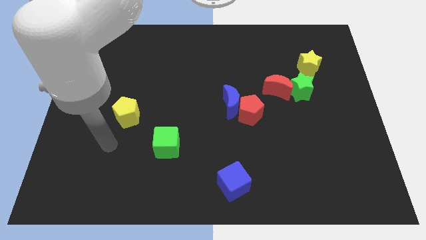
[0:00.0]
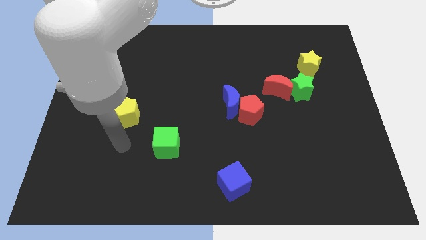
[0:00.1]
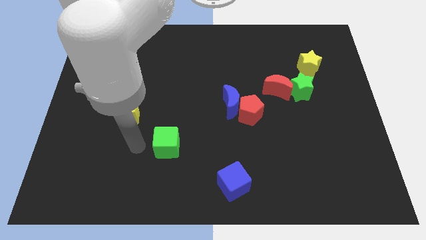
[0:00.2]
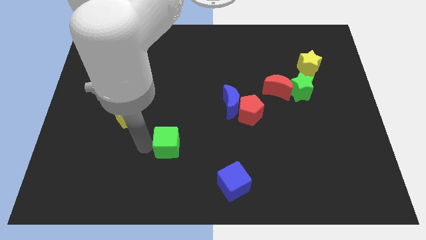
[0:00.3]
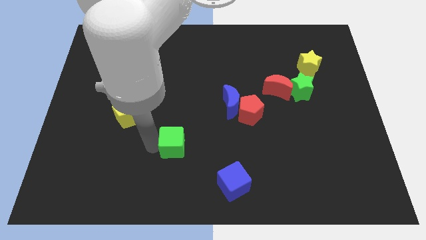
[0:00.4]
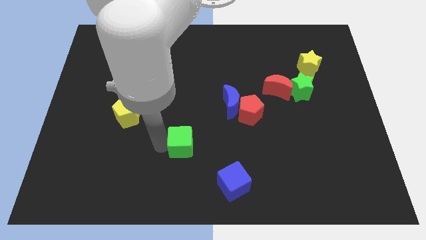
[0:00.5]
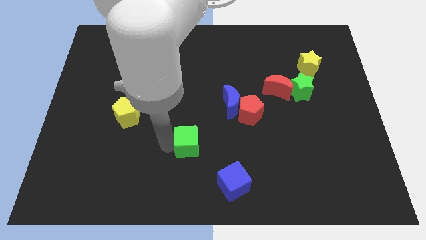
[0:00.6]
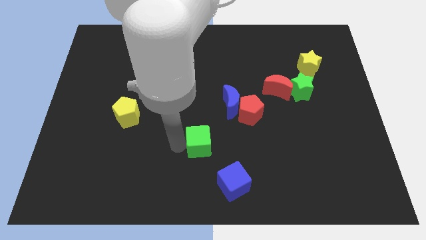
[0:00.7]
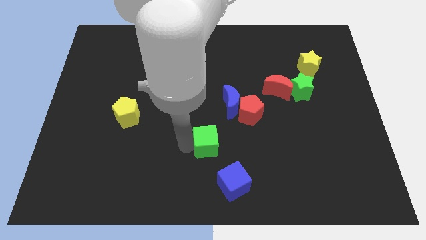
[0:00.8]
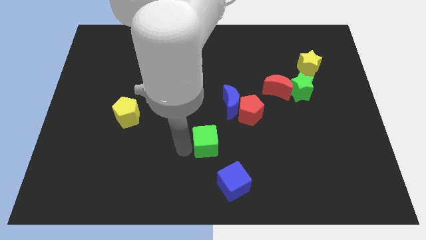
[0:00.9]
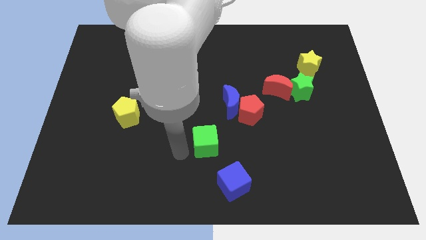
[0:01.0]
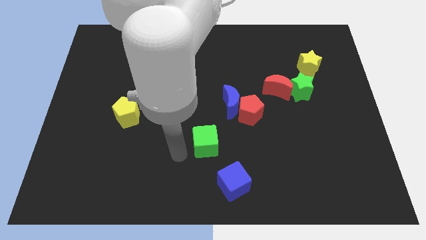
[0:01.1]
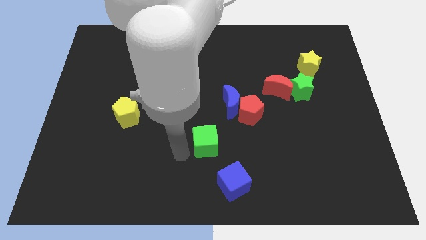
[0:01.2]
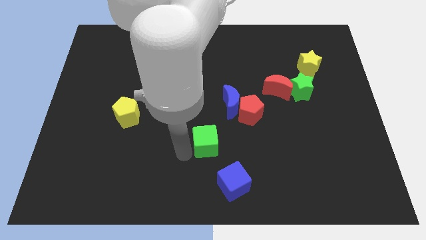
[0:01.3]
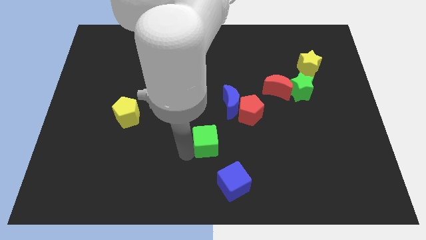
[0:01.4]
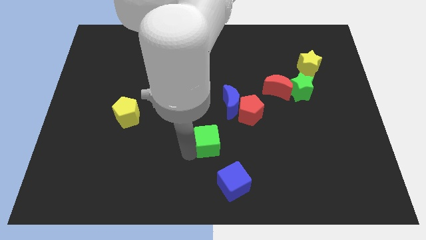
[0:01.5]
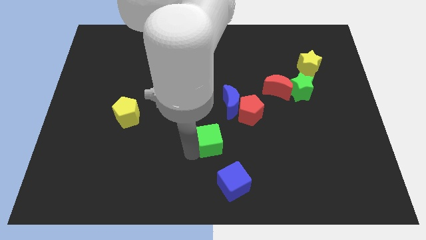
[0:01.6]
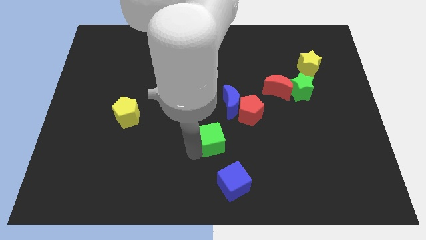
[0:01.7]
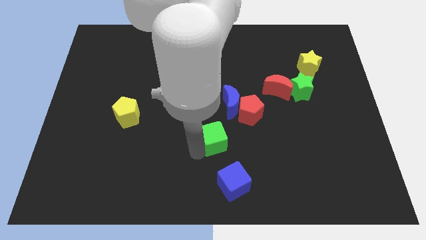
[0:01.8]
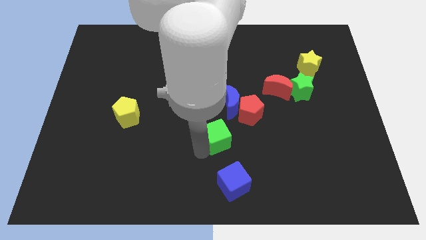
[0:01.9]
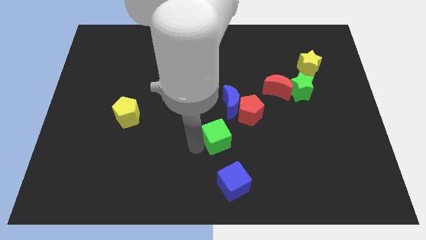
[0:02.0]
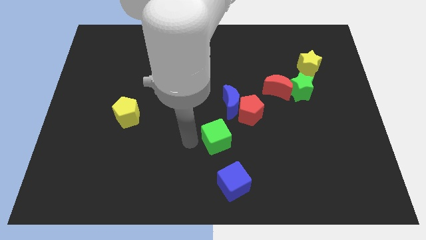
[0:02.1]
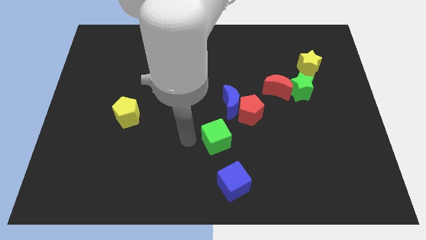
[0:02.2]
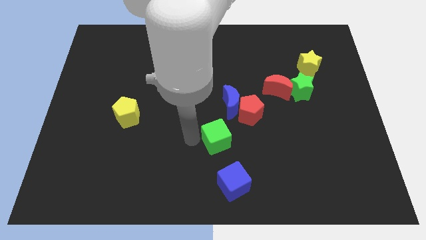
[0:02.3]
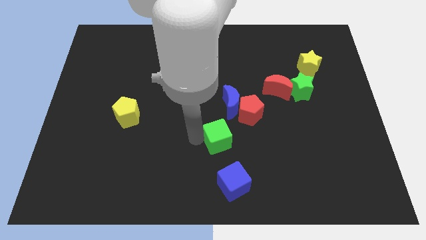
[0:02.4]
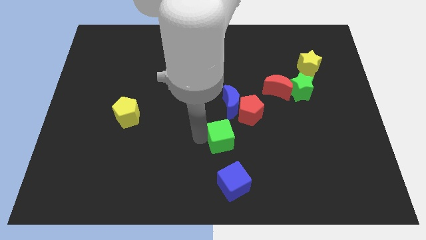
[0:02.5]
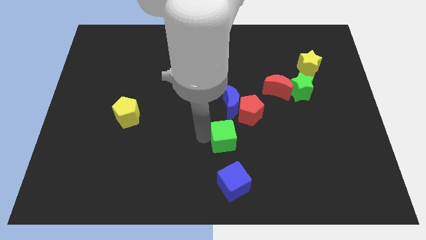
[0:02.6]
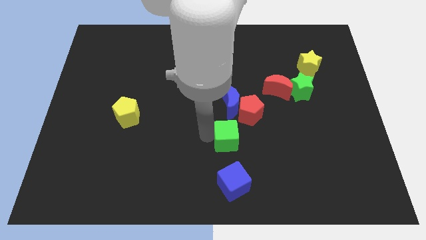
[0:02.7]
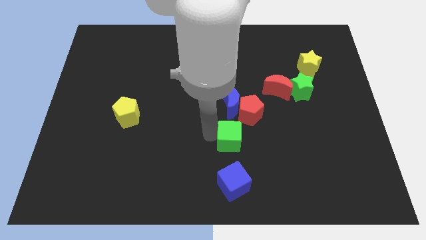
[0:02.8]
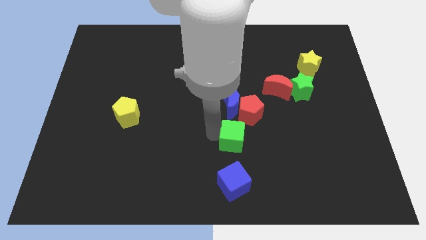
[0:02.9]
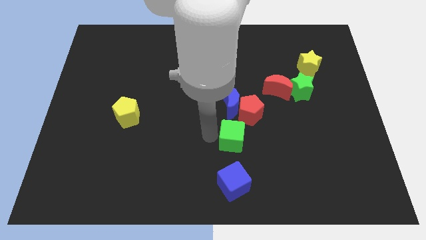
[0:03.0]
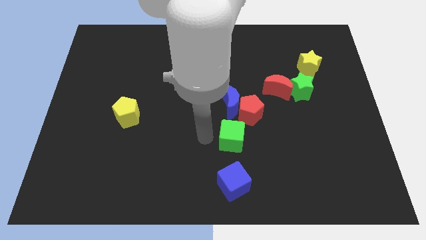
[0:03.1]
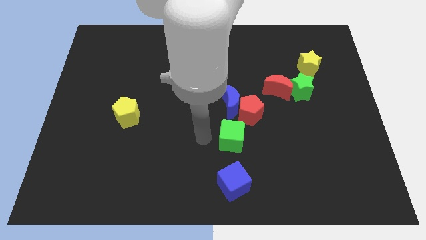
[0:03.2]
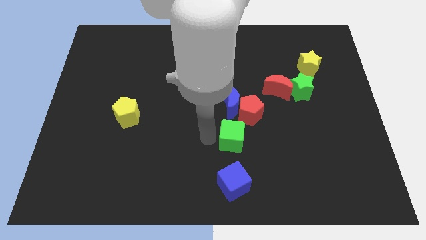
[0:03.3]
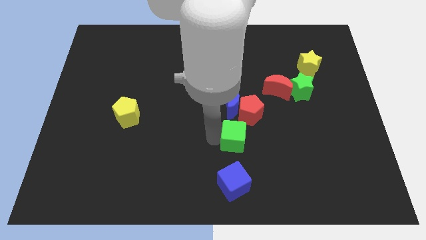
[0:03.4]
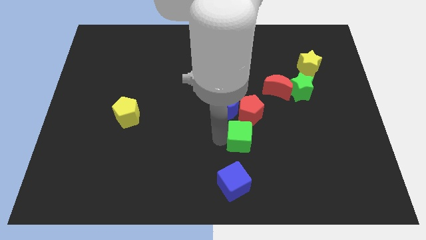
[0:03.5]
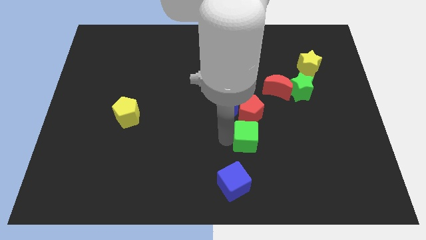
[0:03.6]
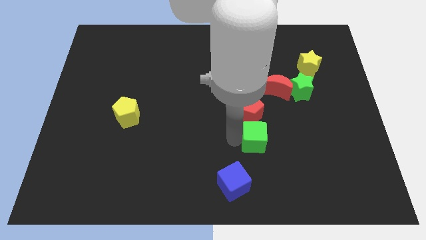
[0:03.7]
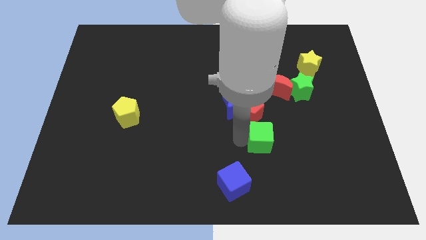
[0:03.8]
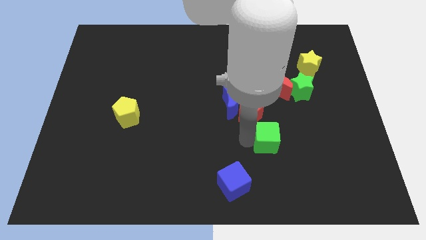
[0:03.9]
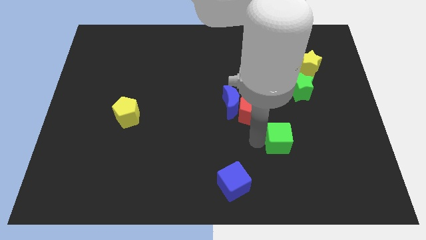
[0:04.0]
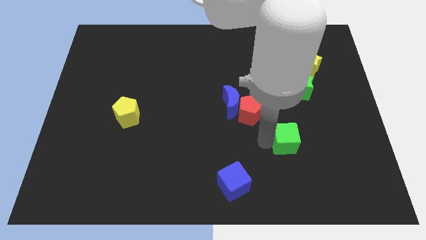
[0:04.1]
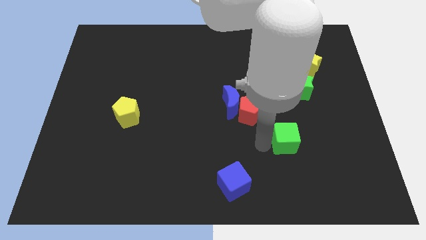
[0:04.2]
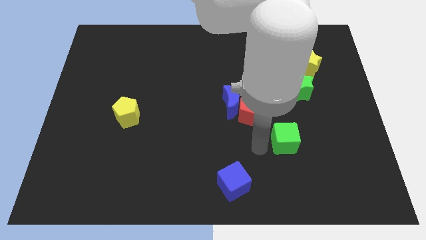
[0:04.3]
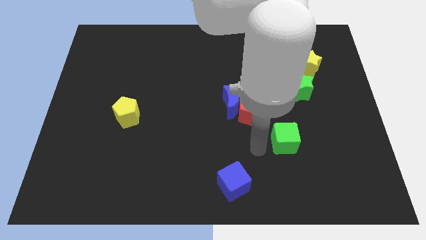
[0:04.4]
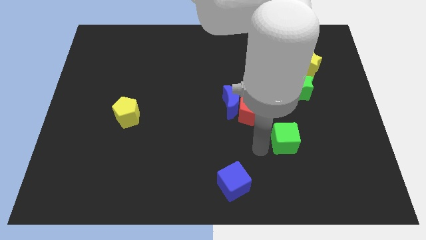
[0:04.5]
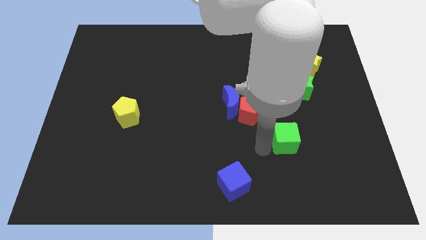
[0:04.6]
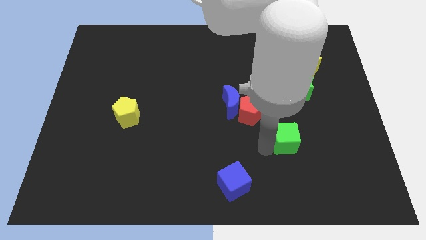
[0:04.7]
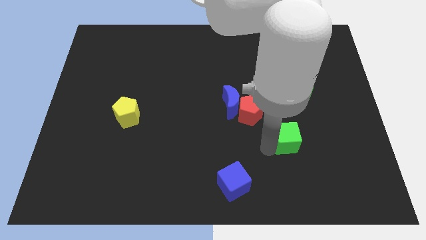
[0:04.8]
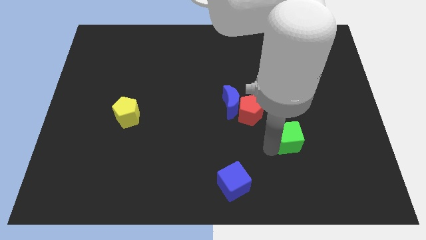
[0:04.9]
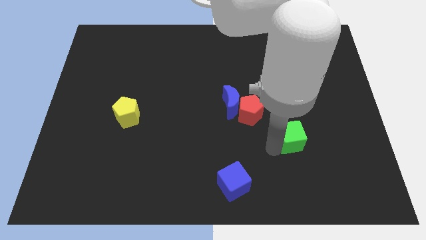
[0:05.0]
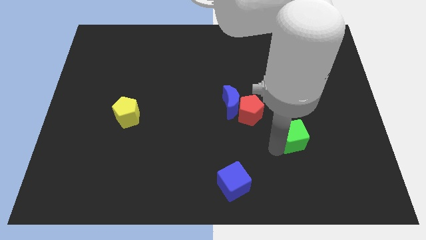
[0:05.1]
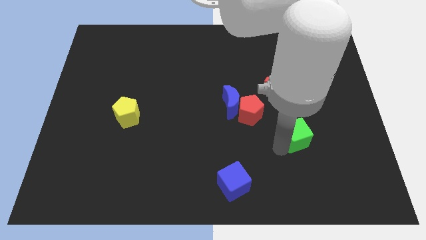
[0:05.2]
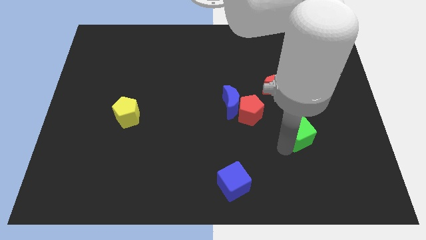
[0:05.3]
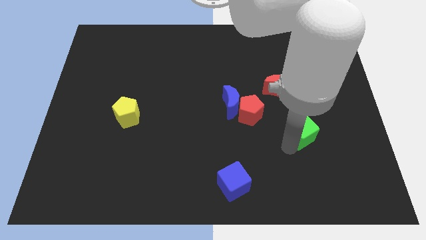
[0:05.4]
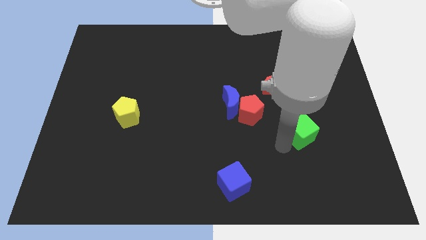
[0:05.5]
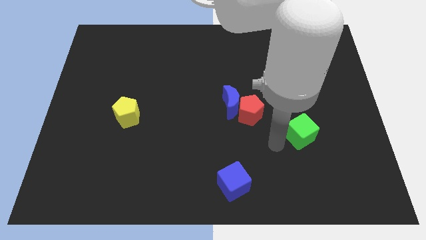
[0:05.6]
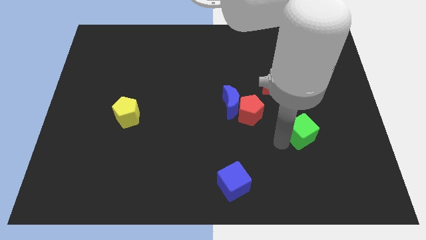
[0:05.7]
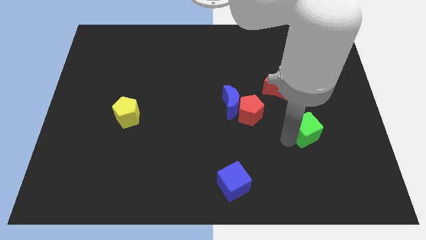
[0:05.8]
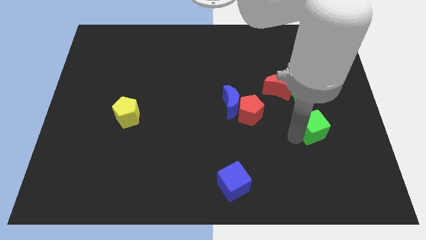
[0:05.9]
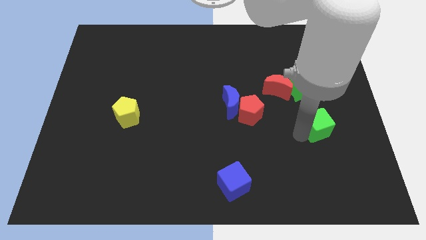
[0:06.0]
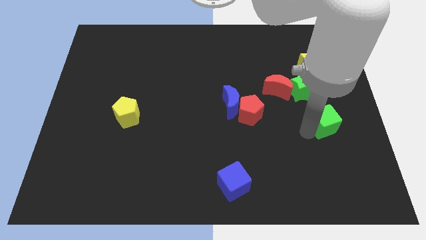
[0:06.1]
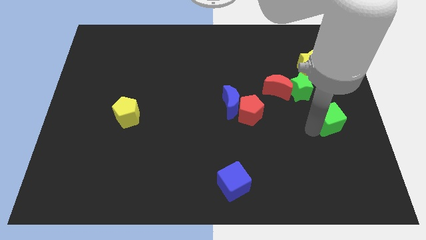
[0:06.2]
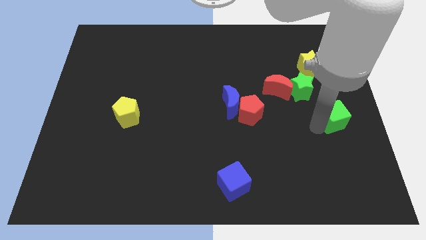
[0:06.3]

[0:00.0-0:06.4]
move the green cube to the center right

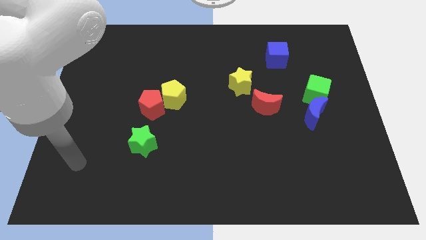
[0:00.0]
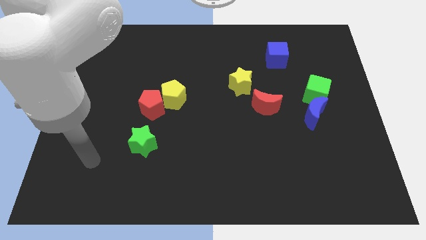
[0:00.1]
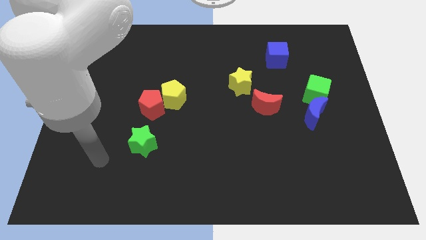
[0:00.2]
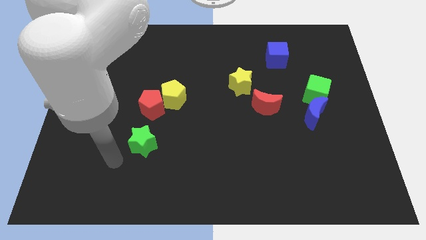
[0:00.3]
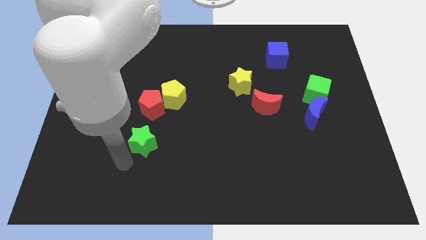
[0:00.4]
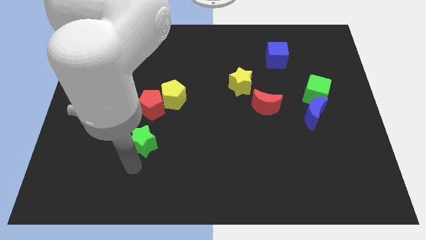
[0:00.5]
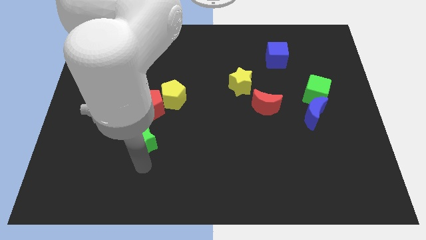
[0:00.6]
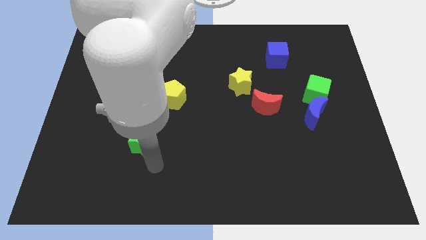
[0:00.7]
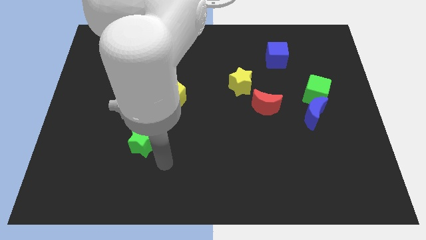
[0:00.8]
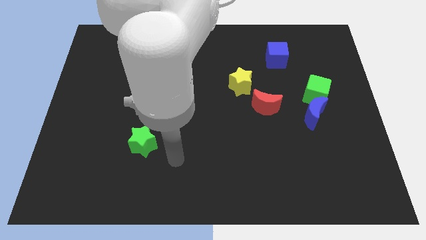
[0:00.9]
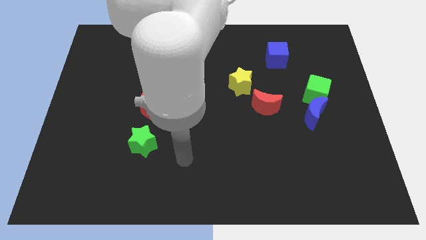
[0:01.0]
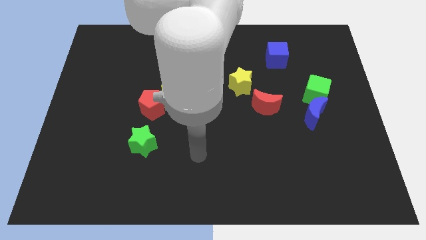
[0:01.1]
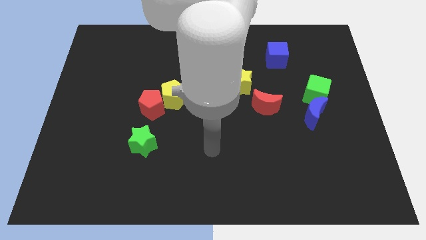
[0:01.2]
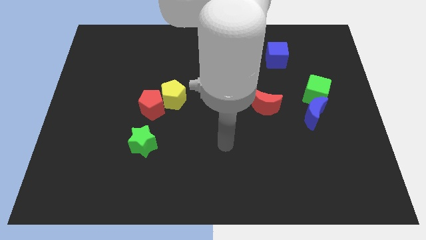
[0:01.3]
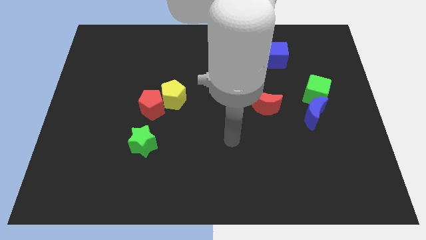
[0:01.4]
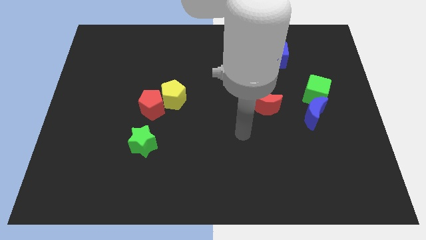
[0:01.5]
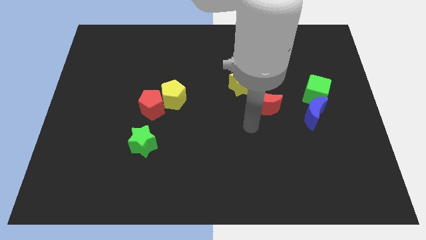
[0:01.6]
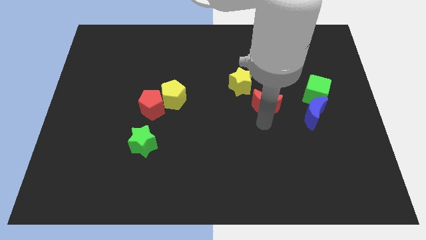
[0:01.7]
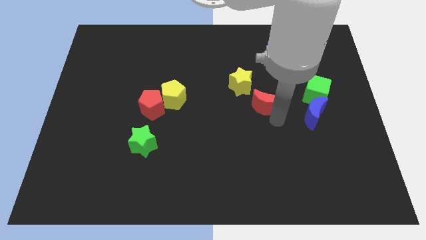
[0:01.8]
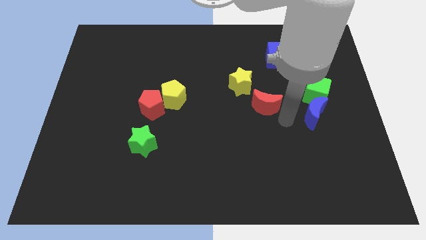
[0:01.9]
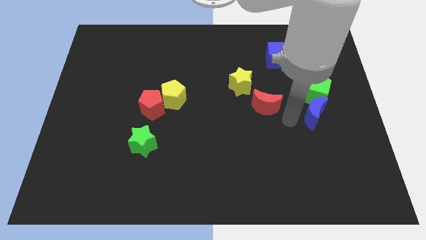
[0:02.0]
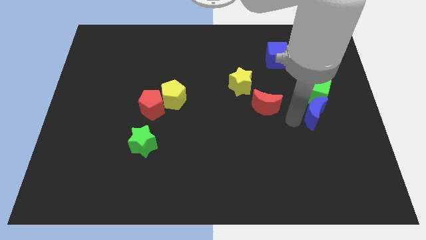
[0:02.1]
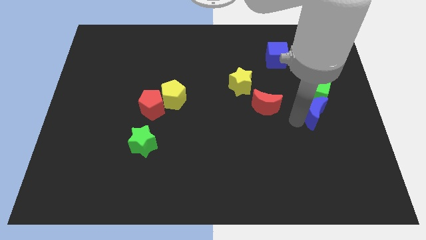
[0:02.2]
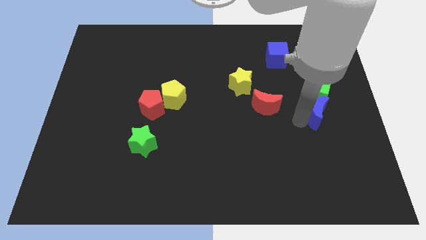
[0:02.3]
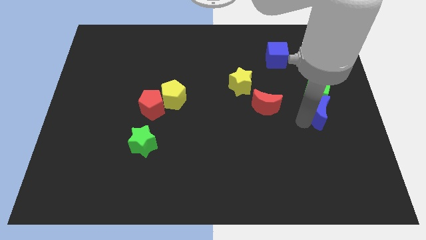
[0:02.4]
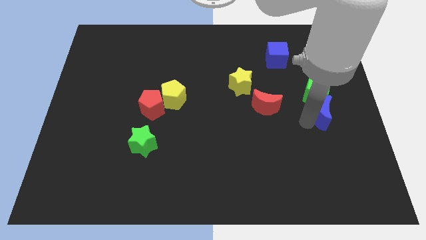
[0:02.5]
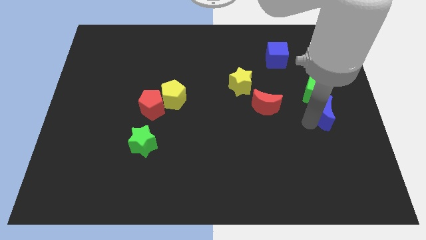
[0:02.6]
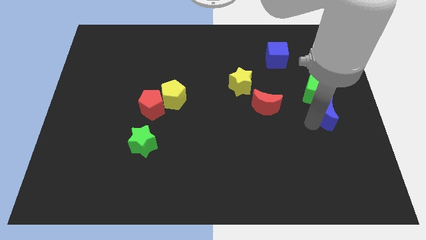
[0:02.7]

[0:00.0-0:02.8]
move the blue moon to the right side of the board
